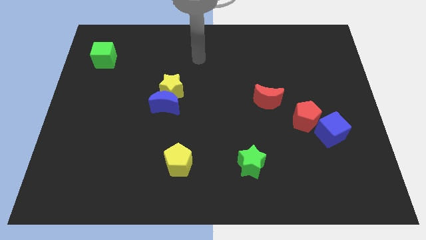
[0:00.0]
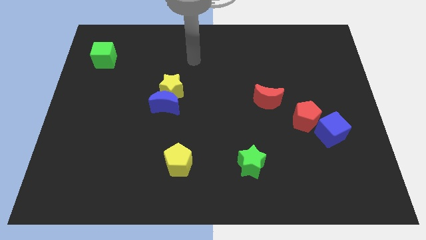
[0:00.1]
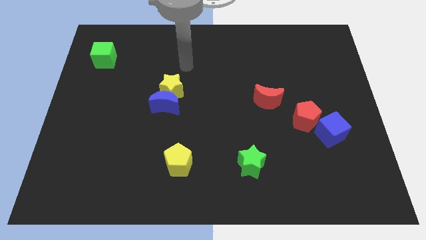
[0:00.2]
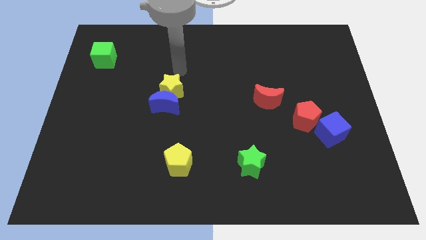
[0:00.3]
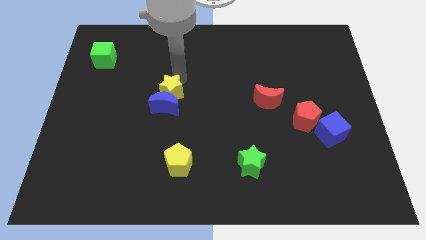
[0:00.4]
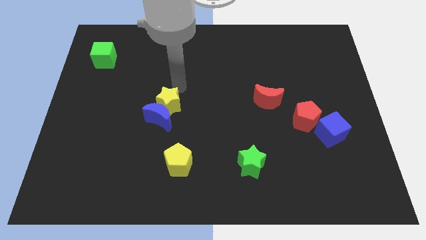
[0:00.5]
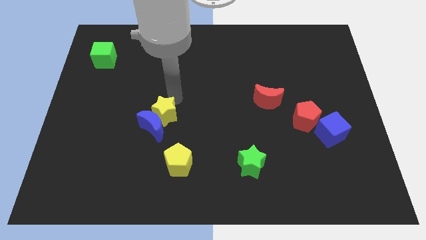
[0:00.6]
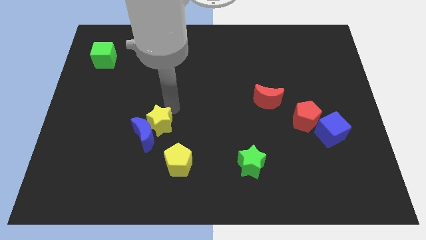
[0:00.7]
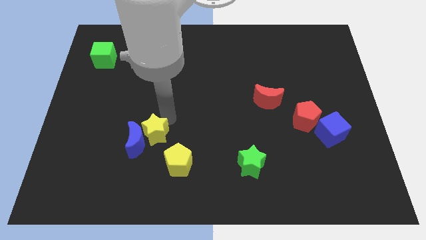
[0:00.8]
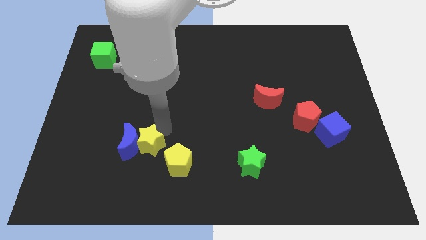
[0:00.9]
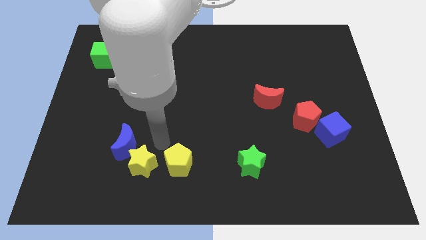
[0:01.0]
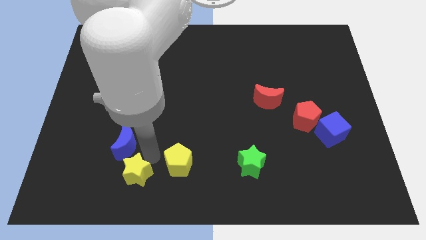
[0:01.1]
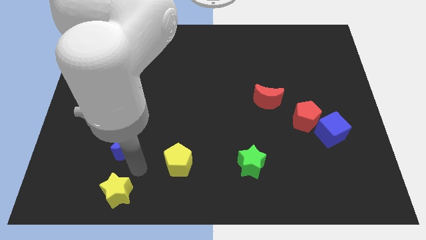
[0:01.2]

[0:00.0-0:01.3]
separate the blue moon from the yellow star

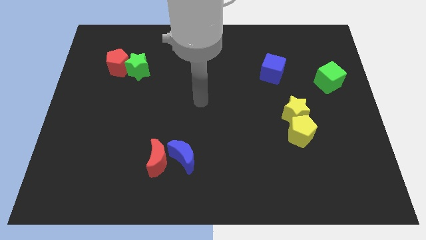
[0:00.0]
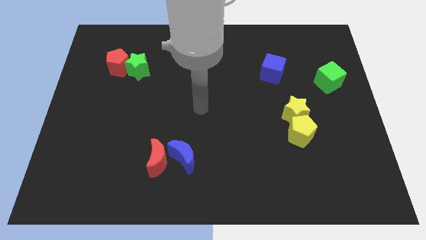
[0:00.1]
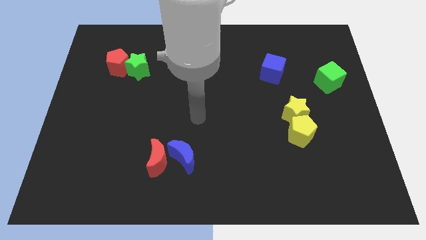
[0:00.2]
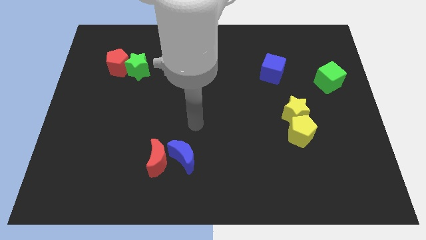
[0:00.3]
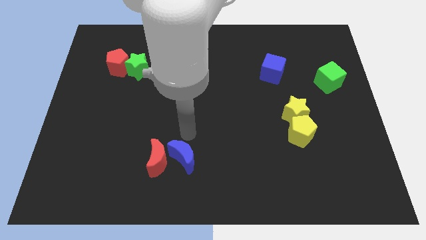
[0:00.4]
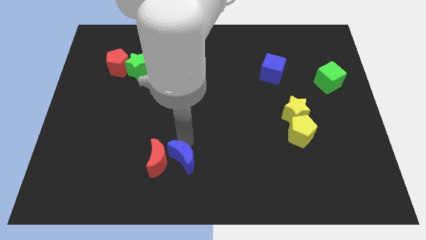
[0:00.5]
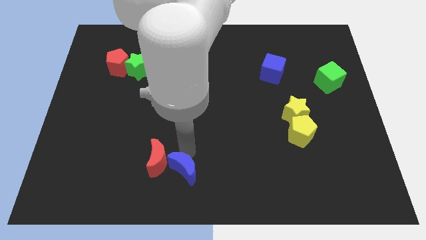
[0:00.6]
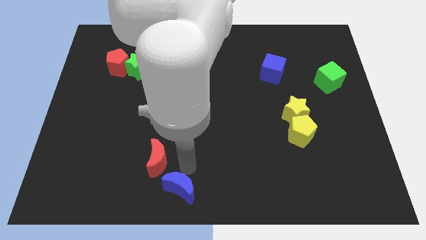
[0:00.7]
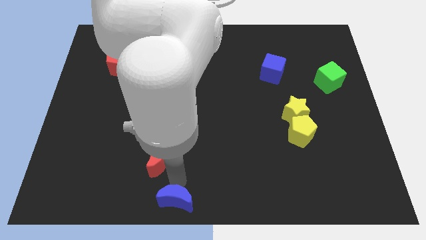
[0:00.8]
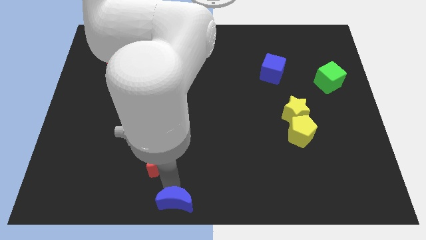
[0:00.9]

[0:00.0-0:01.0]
separate the red moon from the blue moon

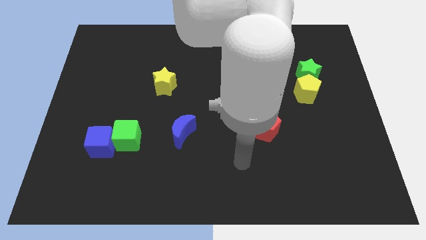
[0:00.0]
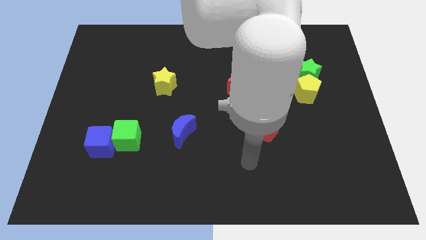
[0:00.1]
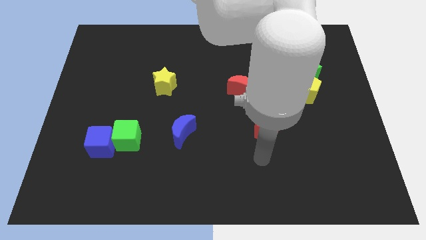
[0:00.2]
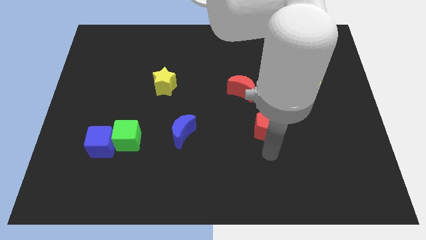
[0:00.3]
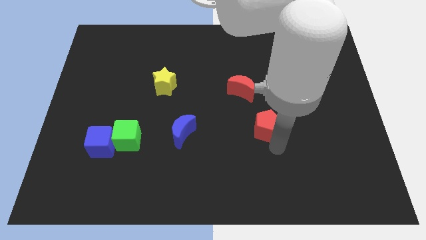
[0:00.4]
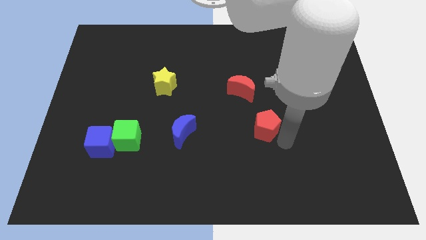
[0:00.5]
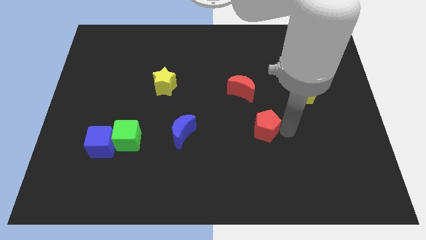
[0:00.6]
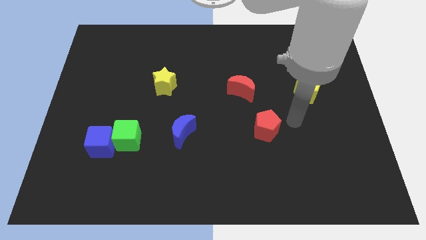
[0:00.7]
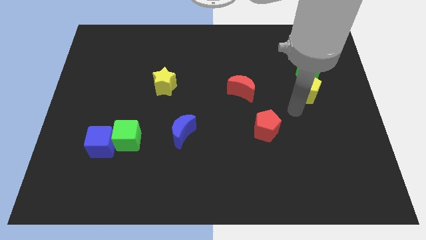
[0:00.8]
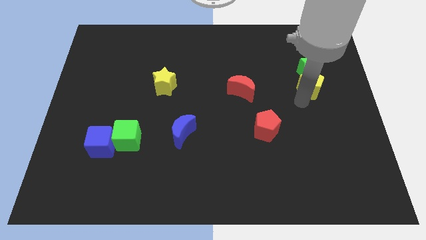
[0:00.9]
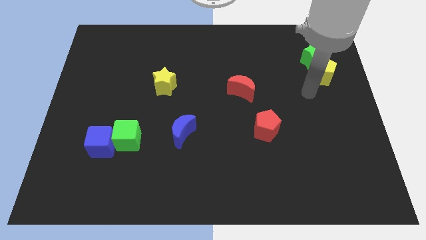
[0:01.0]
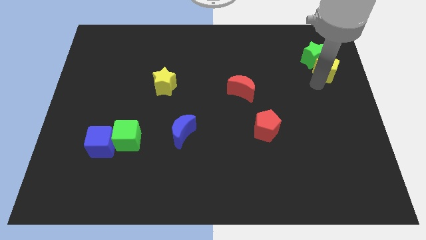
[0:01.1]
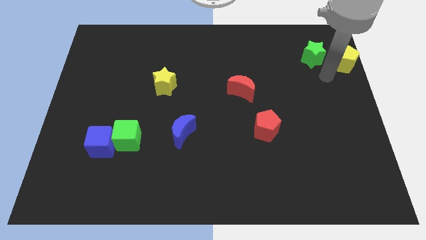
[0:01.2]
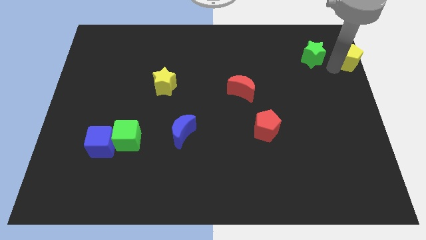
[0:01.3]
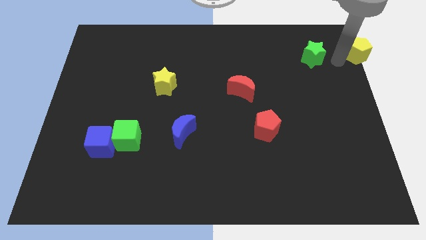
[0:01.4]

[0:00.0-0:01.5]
pull the green star apart from the yellow pentagon

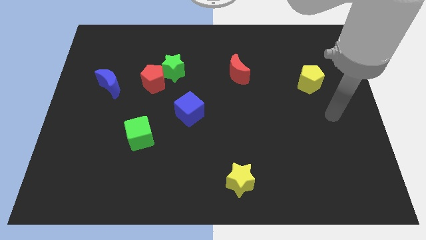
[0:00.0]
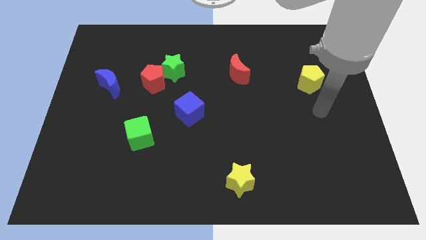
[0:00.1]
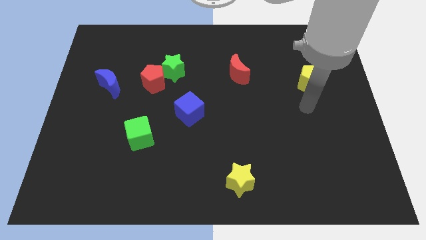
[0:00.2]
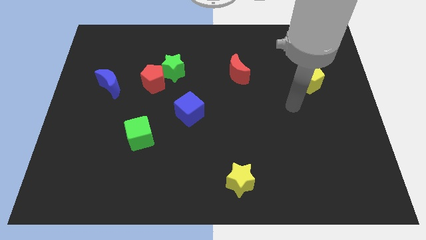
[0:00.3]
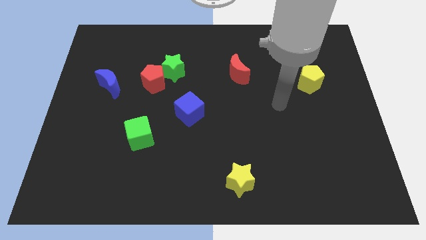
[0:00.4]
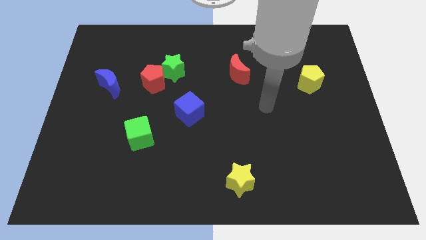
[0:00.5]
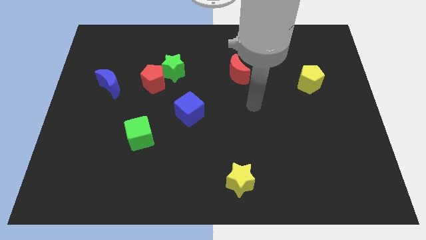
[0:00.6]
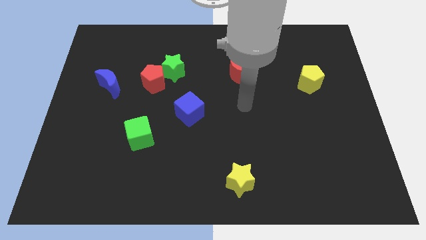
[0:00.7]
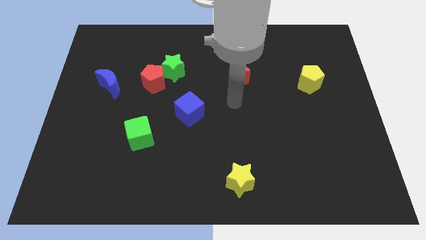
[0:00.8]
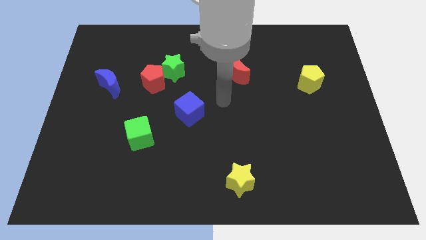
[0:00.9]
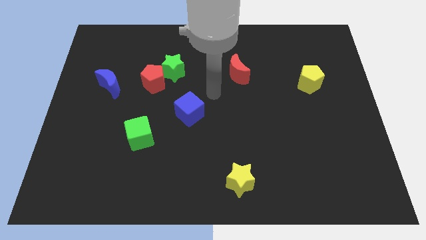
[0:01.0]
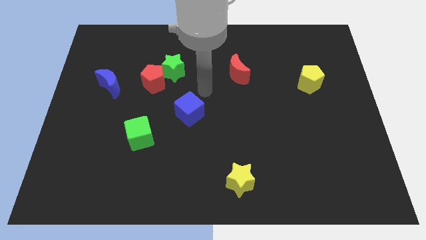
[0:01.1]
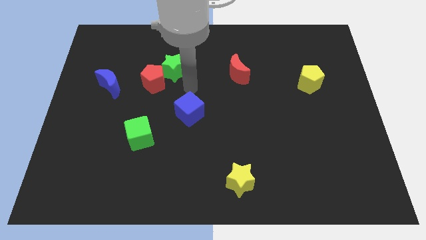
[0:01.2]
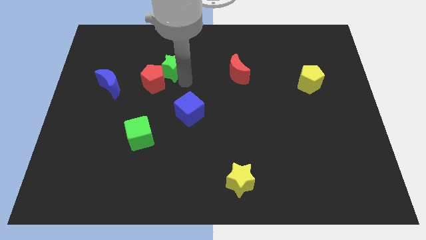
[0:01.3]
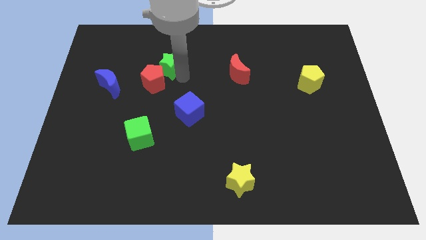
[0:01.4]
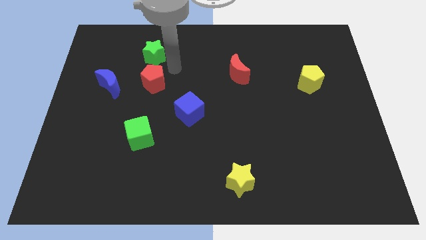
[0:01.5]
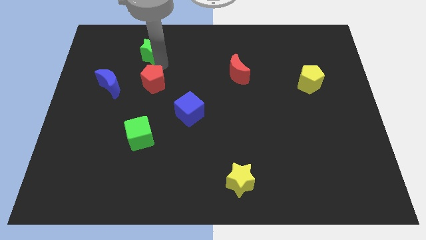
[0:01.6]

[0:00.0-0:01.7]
separate the red pentagon from the green star

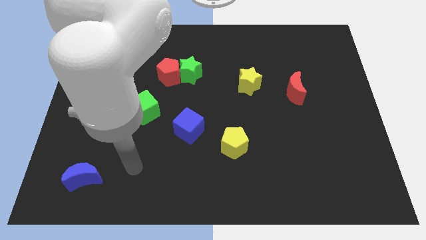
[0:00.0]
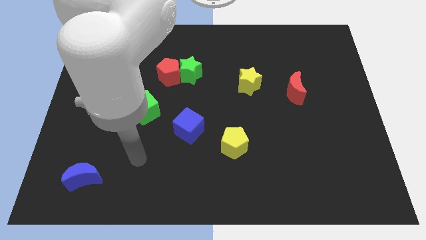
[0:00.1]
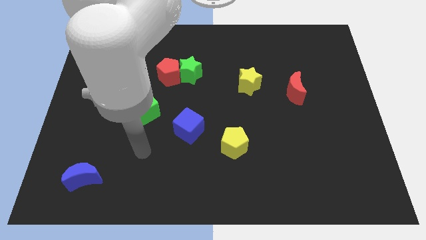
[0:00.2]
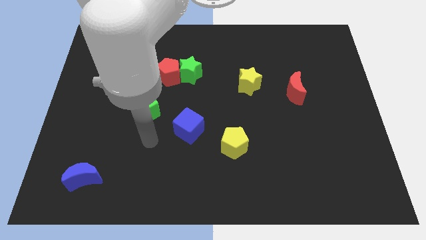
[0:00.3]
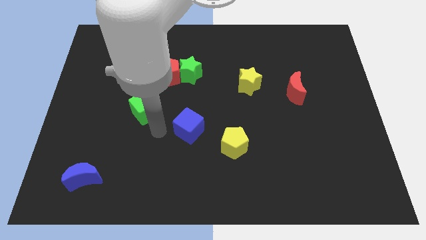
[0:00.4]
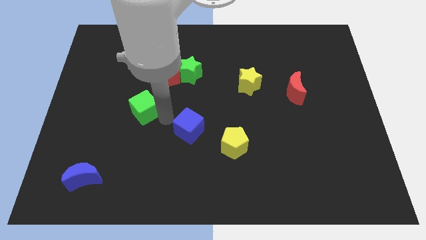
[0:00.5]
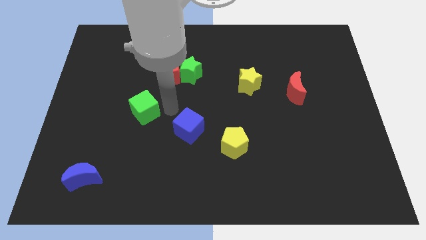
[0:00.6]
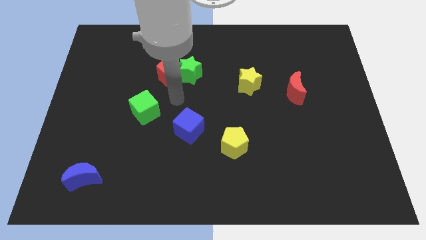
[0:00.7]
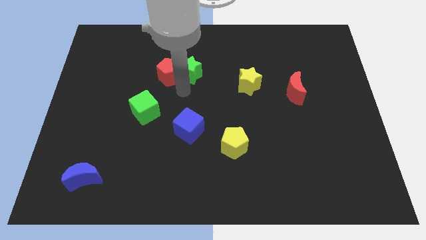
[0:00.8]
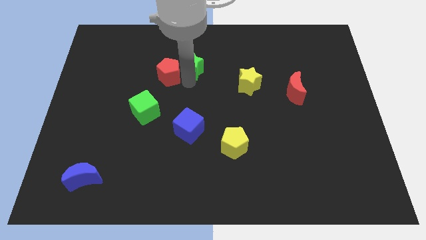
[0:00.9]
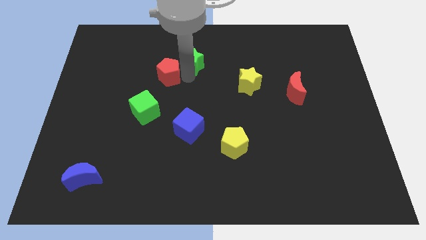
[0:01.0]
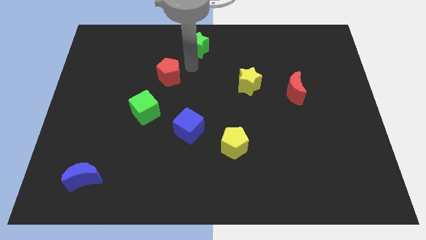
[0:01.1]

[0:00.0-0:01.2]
pull the red pentagon apart from the green star

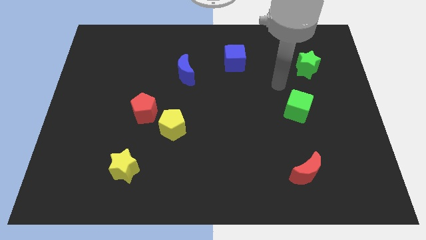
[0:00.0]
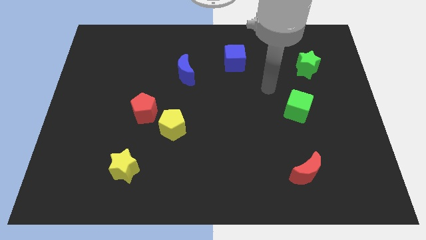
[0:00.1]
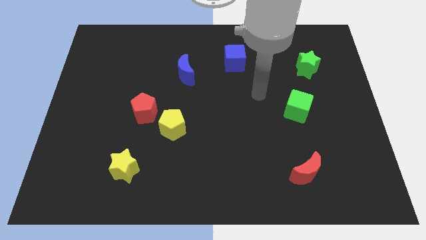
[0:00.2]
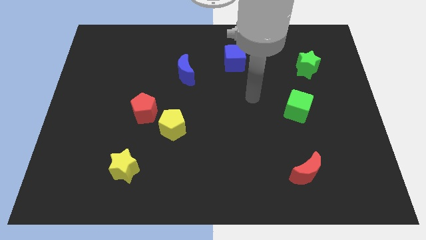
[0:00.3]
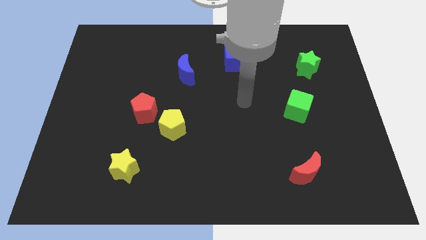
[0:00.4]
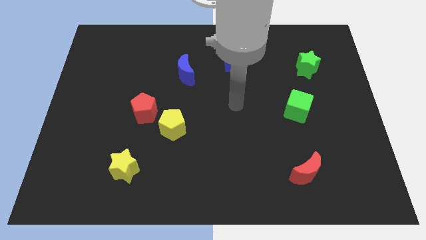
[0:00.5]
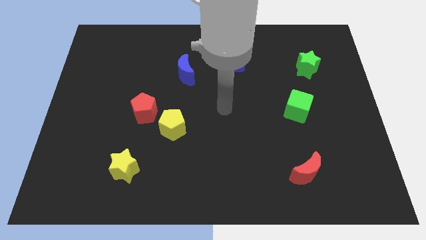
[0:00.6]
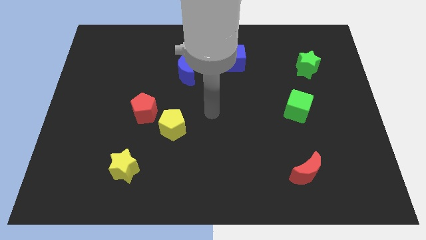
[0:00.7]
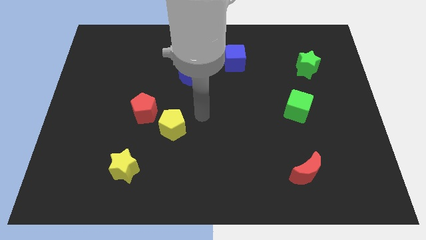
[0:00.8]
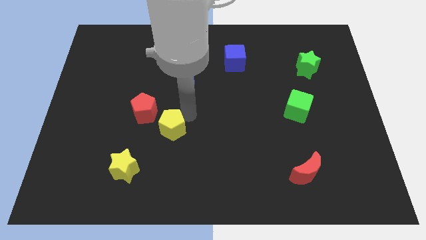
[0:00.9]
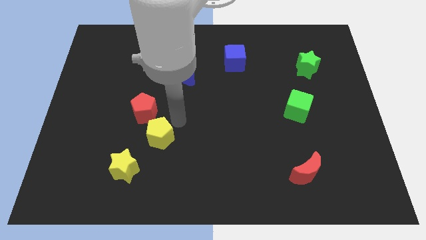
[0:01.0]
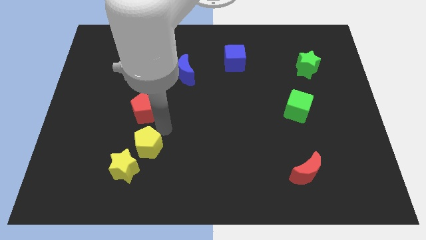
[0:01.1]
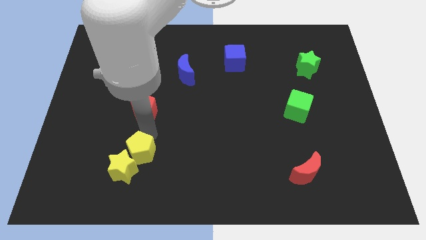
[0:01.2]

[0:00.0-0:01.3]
pull the red pentagon apart from the yellow pentagon

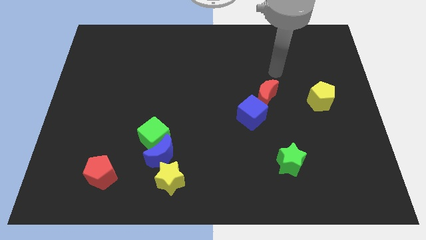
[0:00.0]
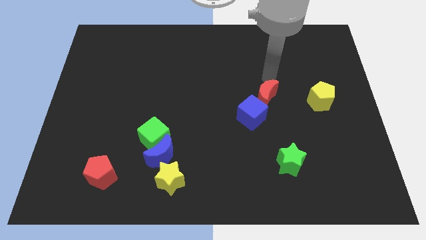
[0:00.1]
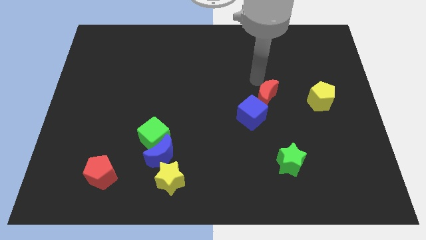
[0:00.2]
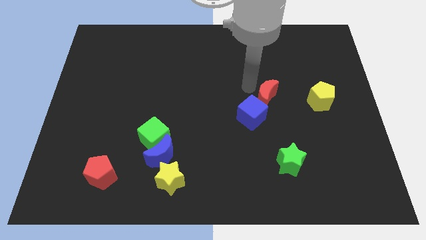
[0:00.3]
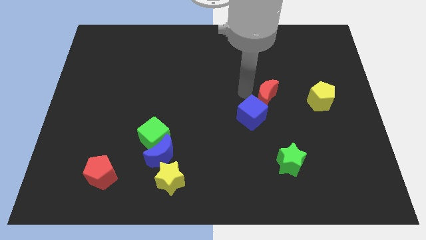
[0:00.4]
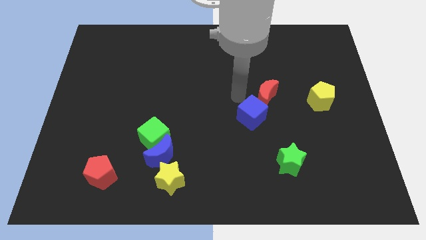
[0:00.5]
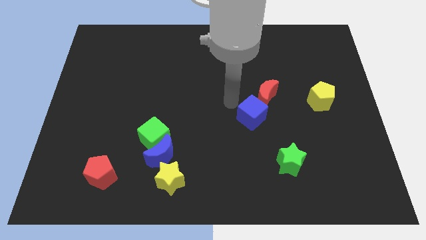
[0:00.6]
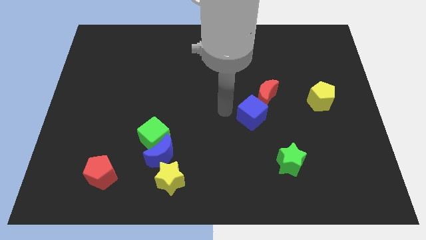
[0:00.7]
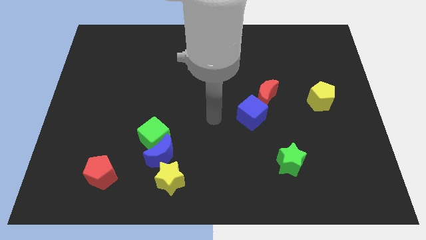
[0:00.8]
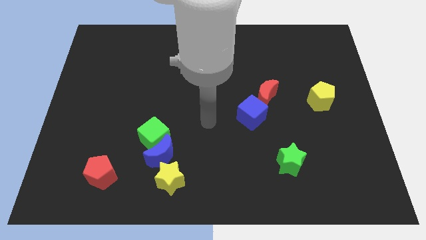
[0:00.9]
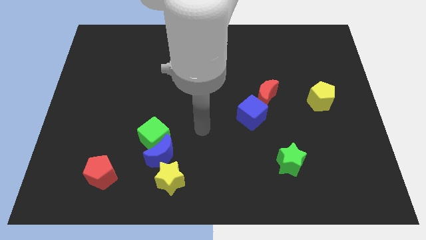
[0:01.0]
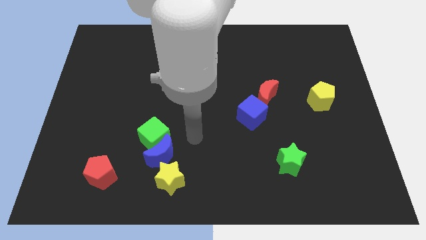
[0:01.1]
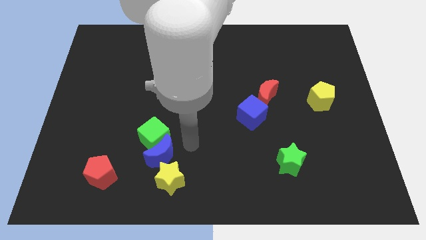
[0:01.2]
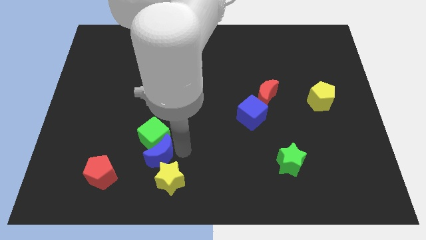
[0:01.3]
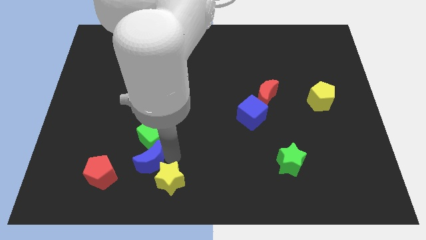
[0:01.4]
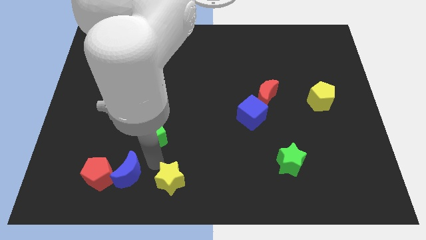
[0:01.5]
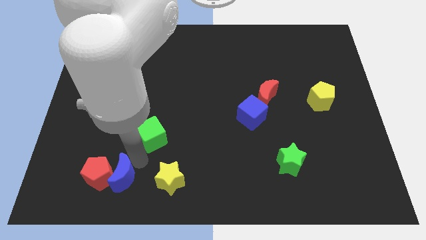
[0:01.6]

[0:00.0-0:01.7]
separate the green cube from the blue moon
